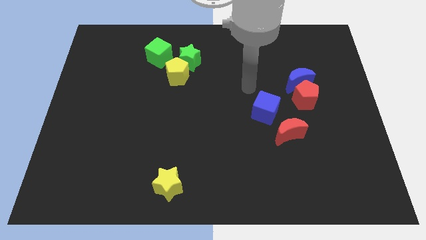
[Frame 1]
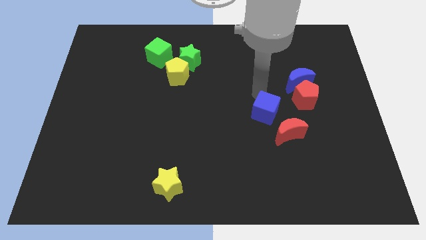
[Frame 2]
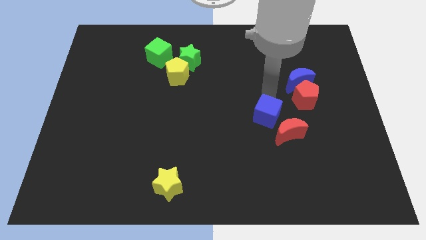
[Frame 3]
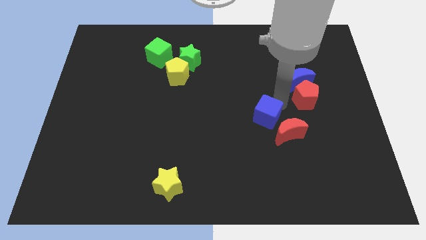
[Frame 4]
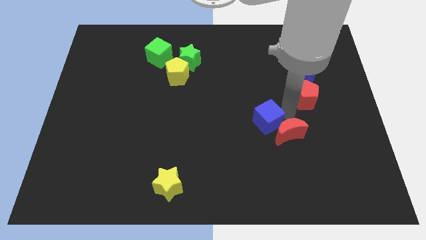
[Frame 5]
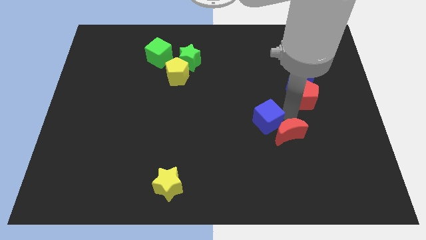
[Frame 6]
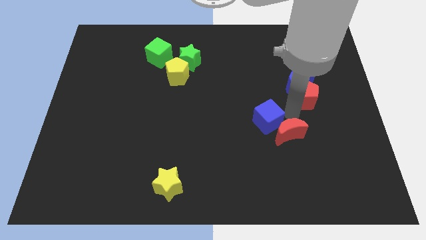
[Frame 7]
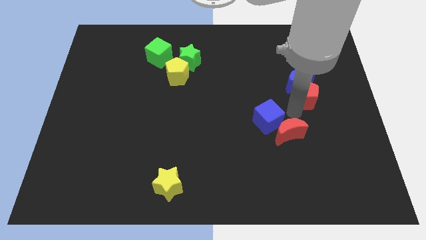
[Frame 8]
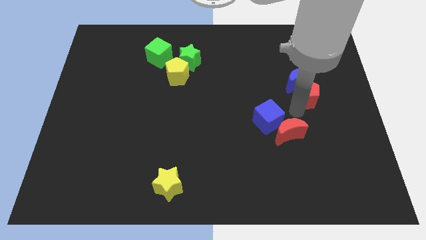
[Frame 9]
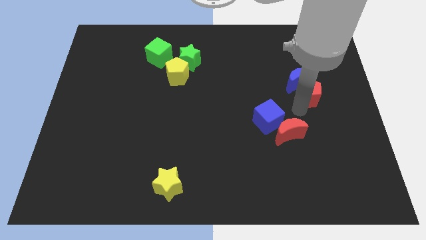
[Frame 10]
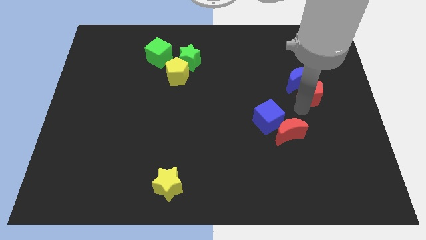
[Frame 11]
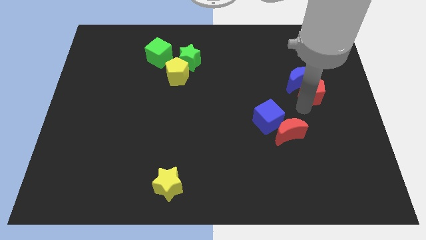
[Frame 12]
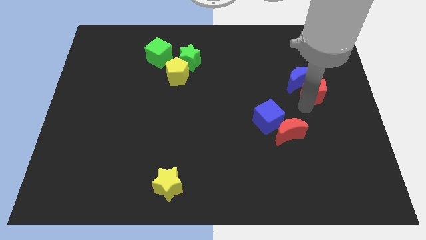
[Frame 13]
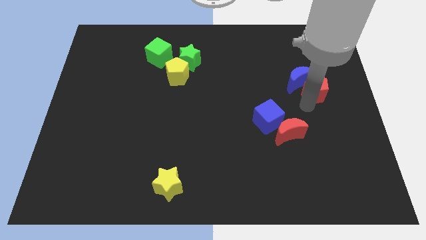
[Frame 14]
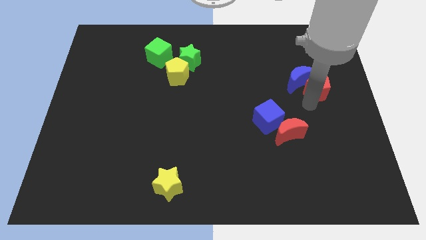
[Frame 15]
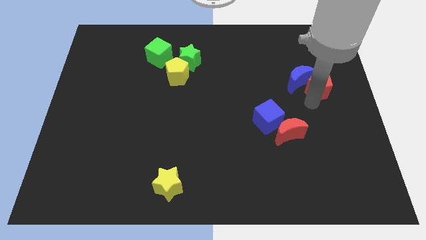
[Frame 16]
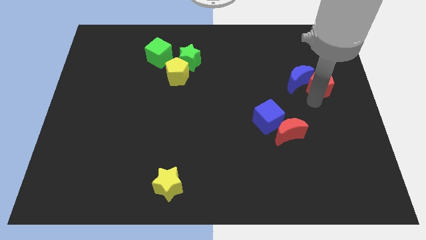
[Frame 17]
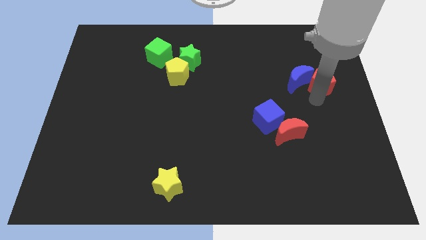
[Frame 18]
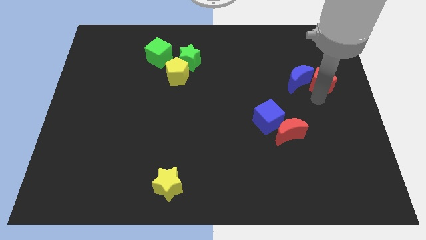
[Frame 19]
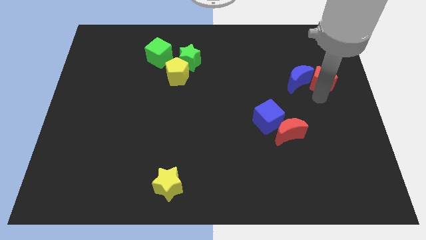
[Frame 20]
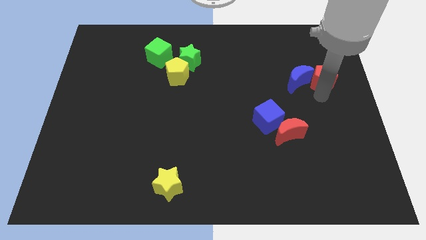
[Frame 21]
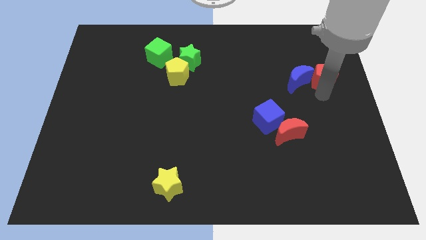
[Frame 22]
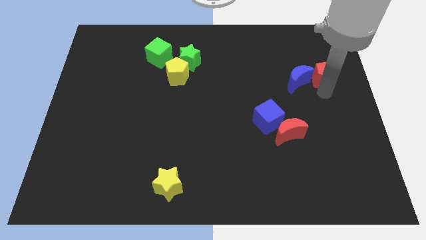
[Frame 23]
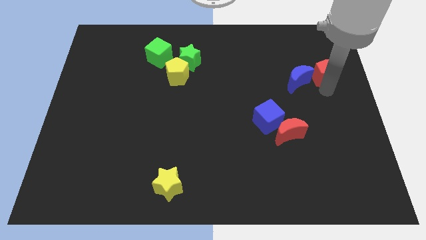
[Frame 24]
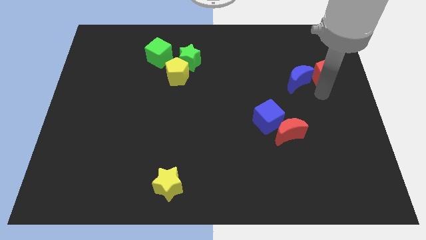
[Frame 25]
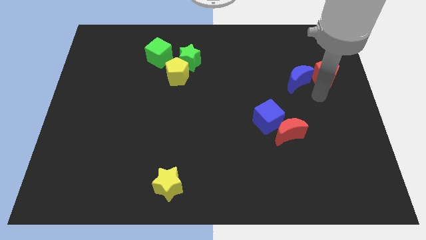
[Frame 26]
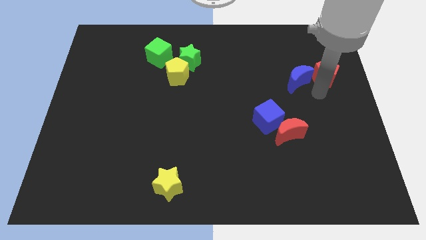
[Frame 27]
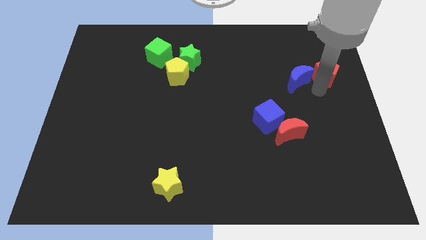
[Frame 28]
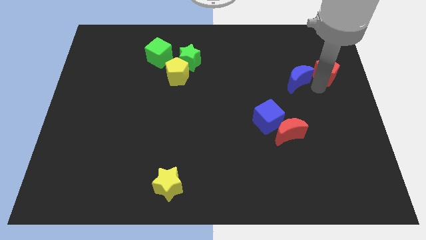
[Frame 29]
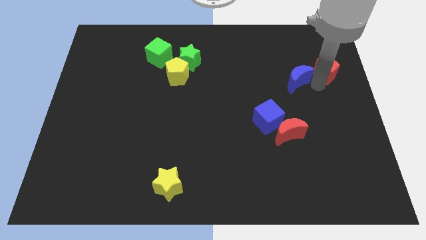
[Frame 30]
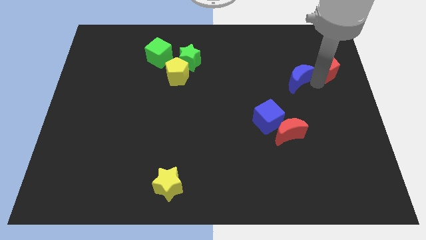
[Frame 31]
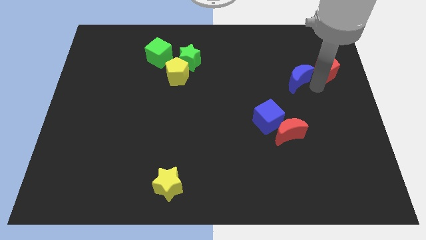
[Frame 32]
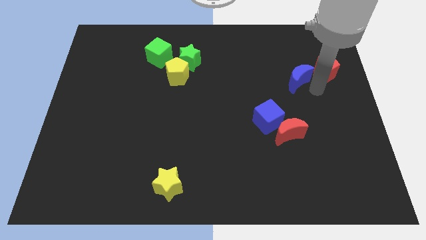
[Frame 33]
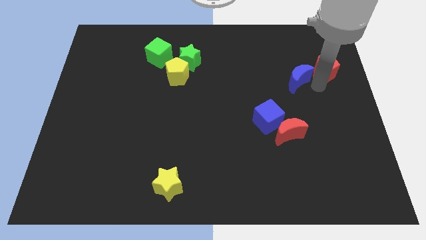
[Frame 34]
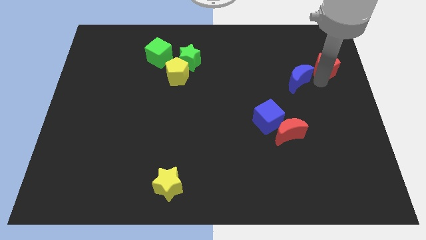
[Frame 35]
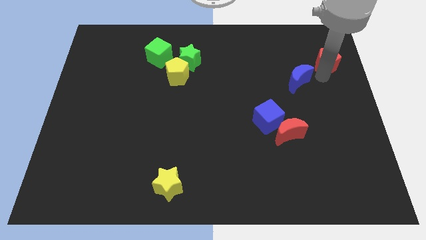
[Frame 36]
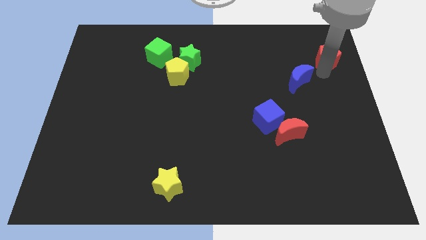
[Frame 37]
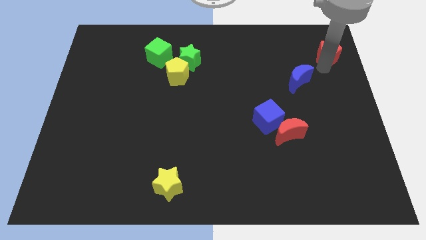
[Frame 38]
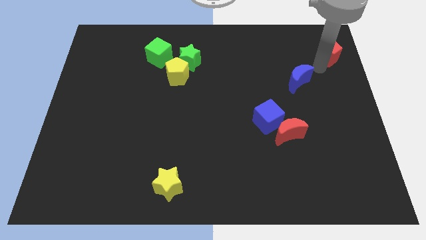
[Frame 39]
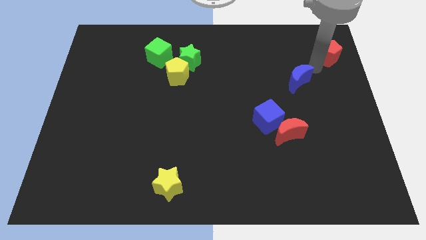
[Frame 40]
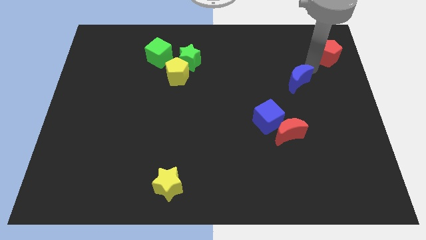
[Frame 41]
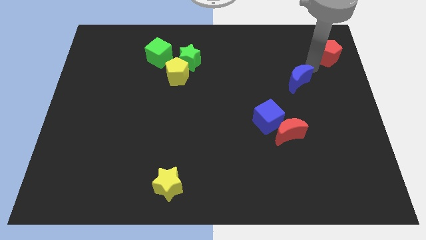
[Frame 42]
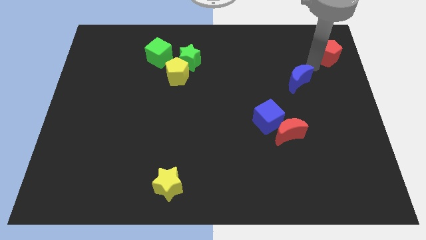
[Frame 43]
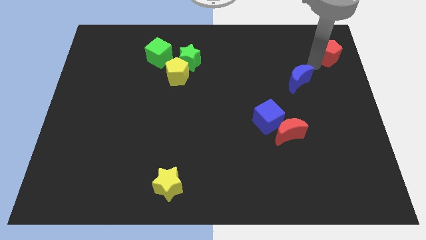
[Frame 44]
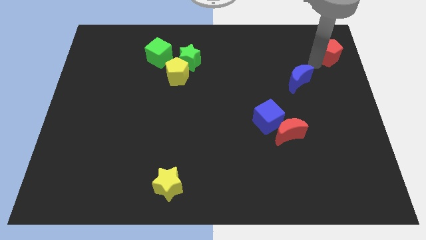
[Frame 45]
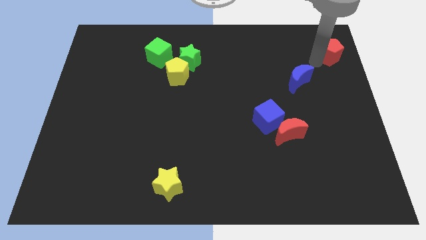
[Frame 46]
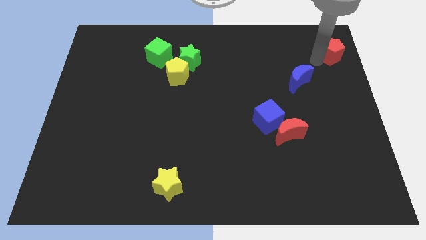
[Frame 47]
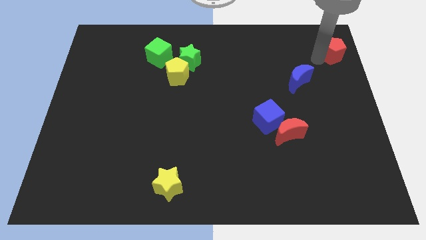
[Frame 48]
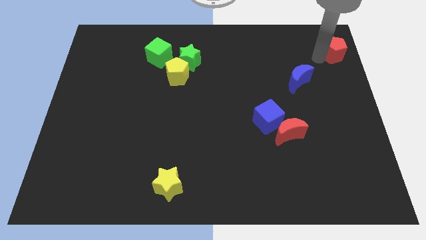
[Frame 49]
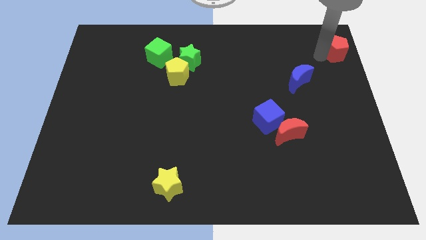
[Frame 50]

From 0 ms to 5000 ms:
put the red pentagon to the top right of the board

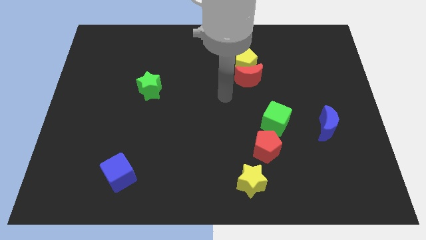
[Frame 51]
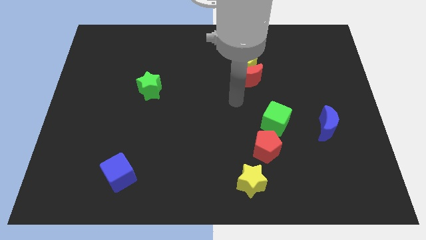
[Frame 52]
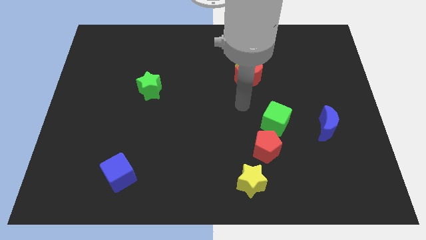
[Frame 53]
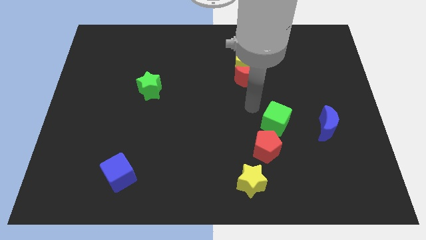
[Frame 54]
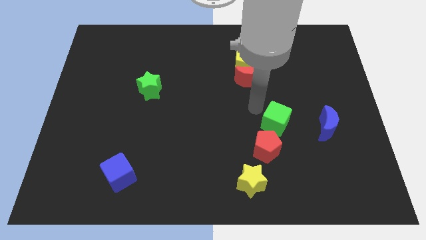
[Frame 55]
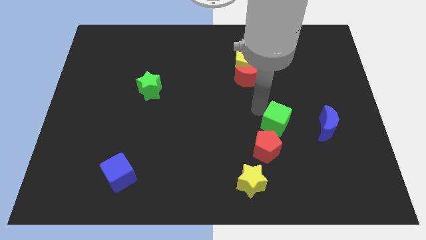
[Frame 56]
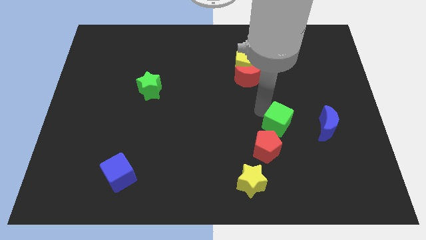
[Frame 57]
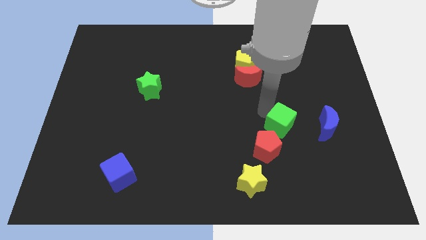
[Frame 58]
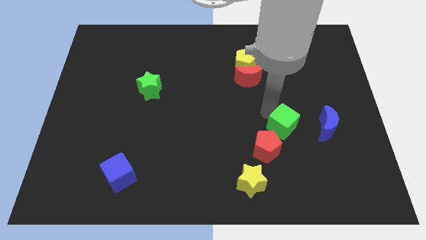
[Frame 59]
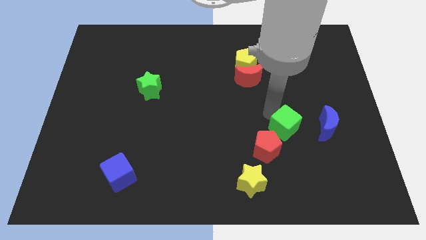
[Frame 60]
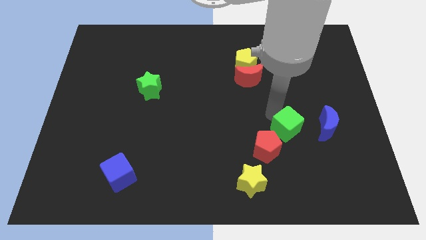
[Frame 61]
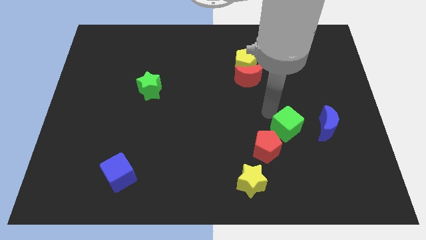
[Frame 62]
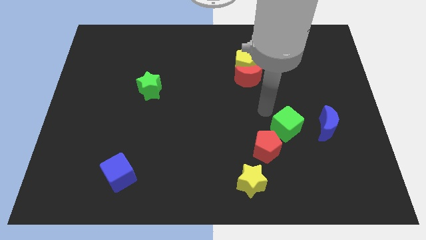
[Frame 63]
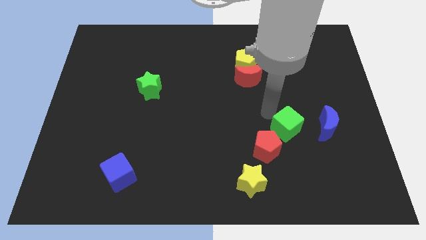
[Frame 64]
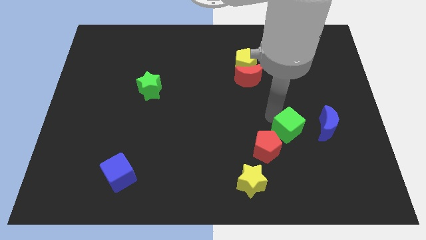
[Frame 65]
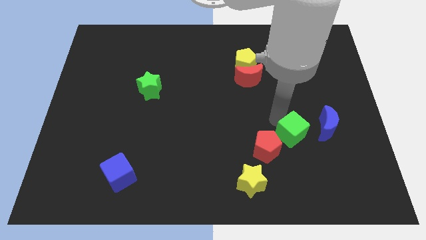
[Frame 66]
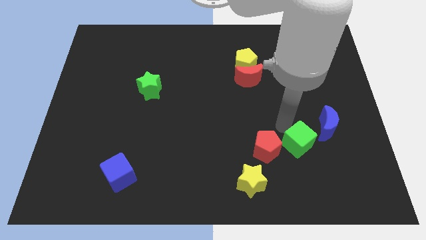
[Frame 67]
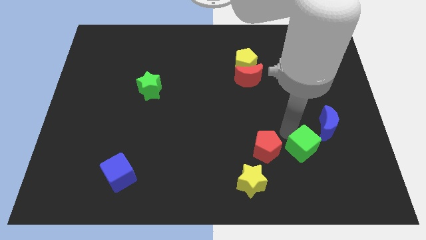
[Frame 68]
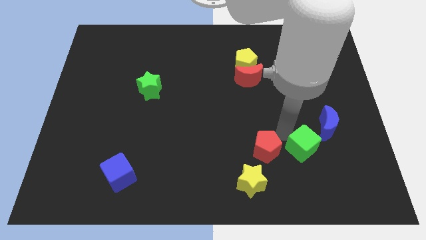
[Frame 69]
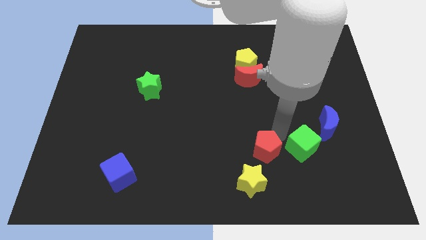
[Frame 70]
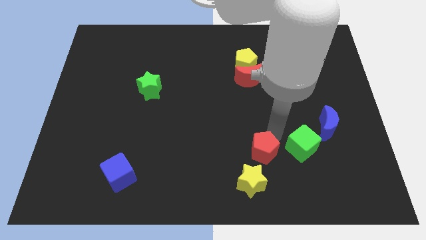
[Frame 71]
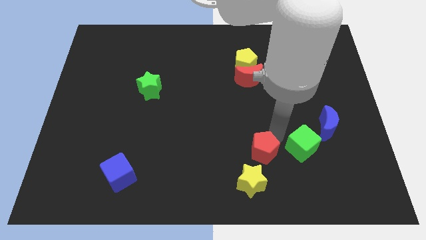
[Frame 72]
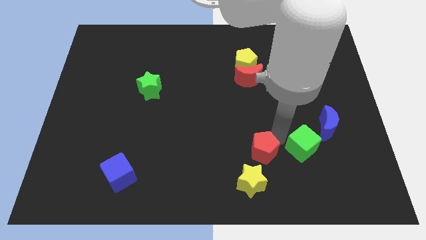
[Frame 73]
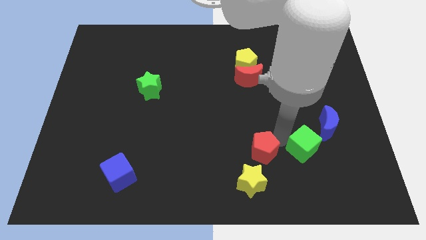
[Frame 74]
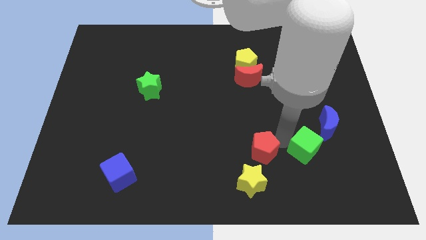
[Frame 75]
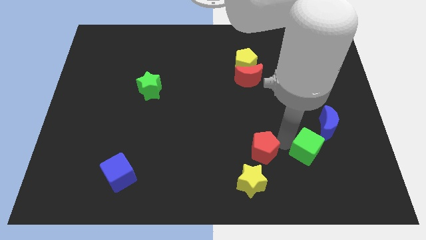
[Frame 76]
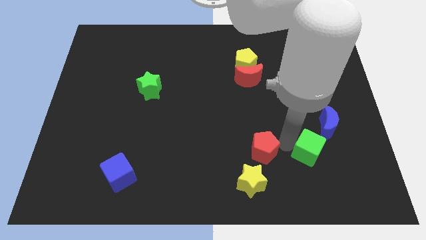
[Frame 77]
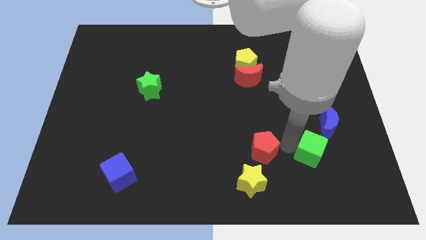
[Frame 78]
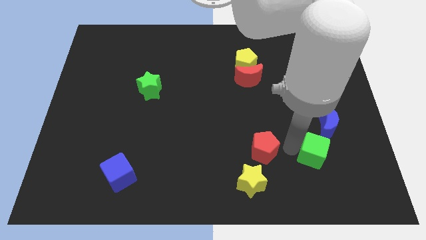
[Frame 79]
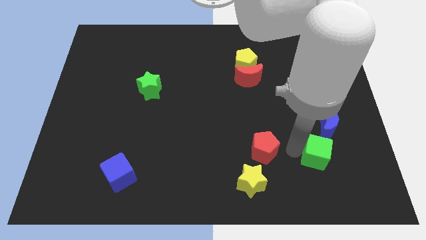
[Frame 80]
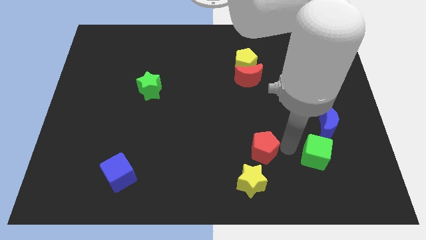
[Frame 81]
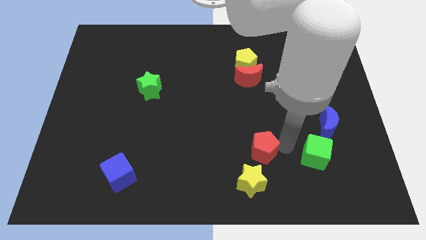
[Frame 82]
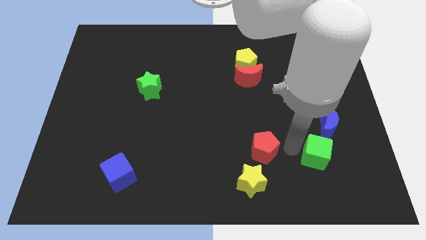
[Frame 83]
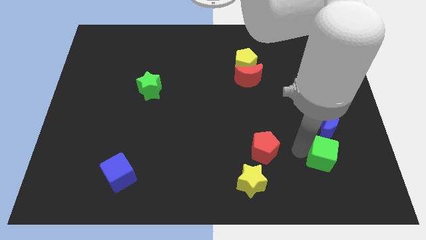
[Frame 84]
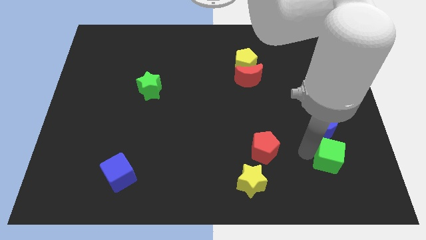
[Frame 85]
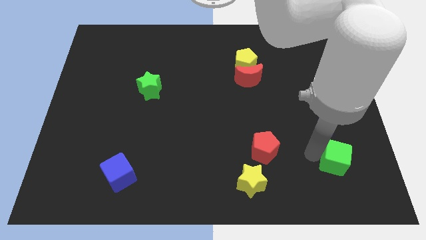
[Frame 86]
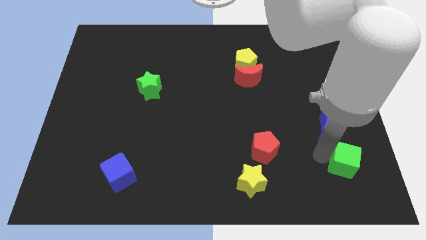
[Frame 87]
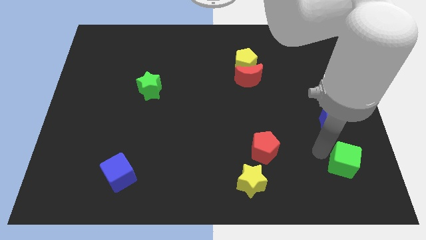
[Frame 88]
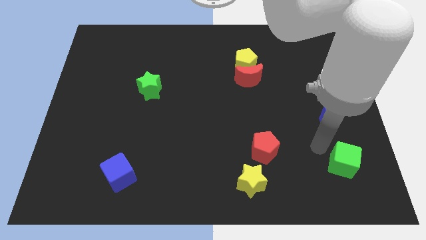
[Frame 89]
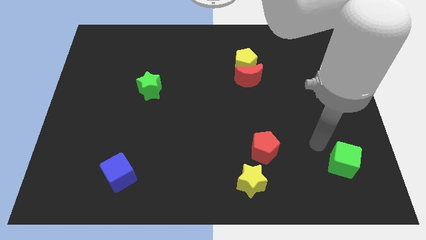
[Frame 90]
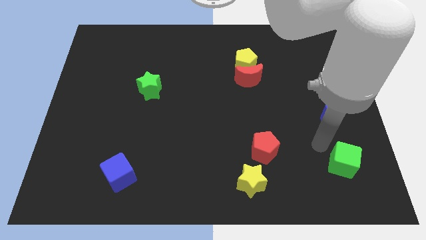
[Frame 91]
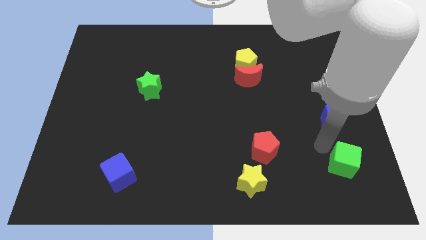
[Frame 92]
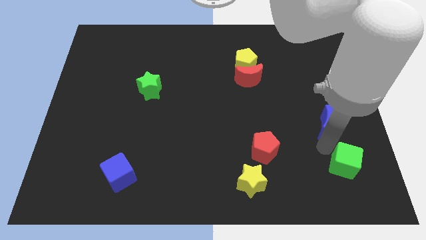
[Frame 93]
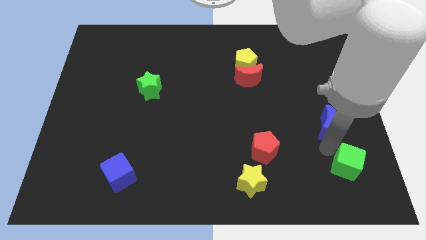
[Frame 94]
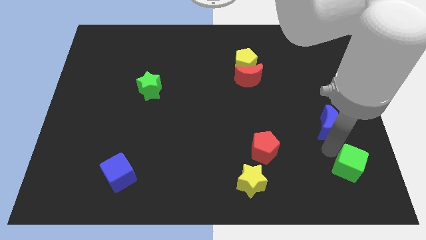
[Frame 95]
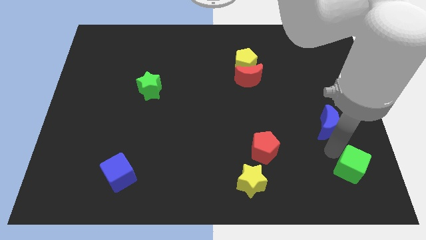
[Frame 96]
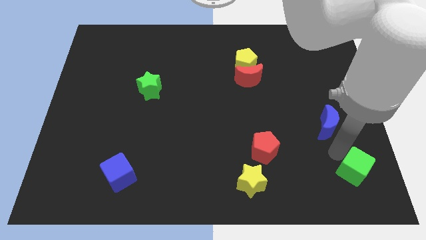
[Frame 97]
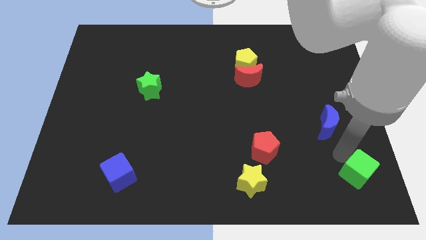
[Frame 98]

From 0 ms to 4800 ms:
slide the green cube to the bottom right corner
